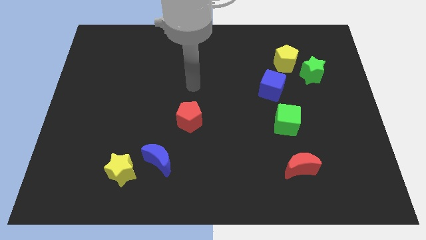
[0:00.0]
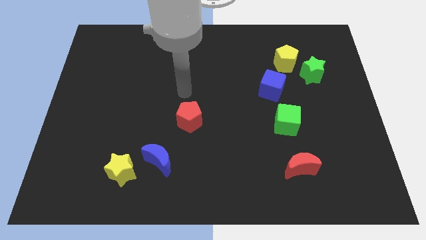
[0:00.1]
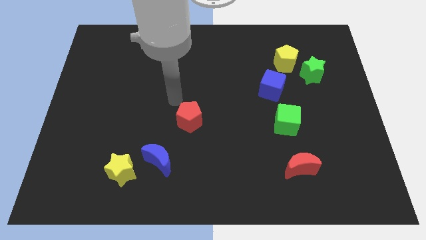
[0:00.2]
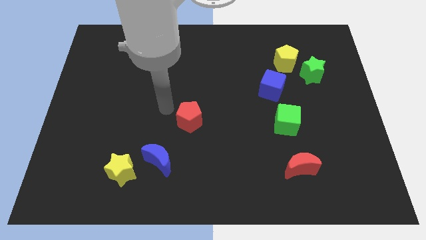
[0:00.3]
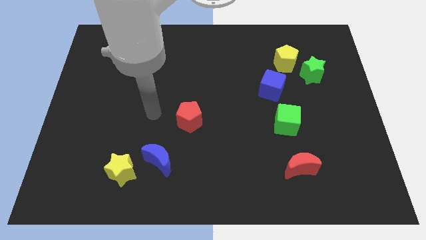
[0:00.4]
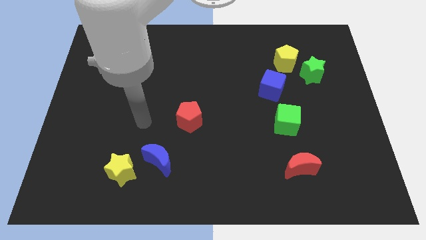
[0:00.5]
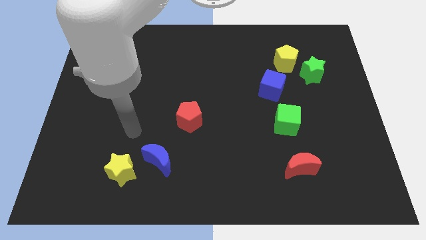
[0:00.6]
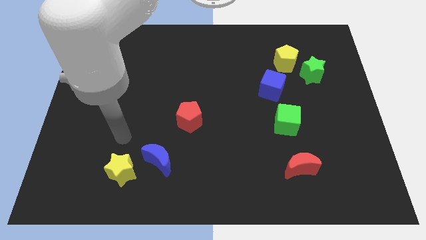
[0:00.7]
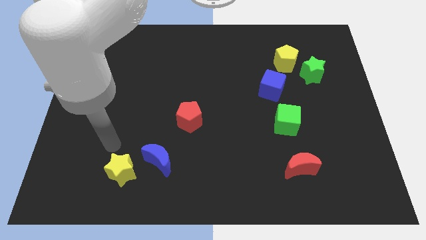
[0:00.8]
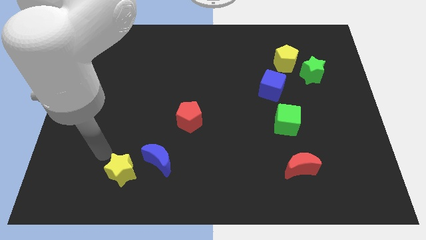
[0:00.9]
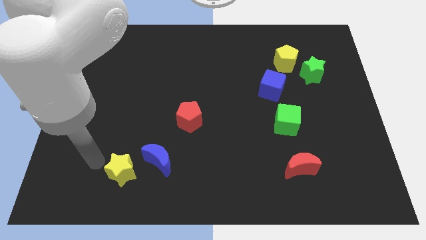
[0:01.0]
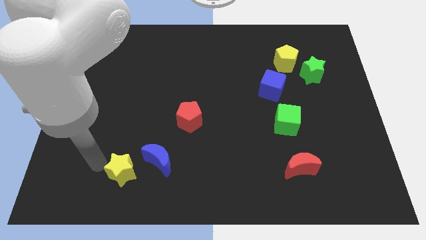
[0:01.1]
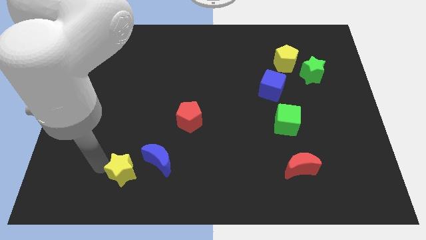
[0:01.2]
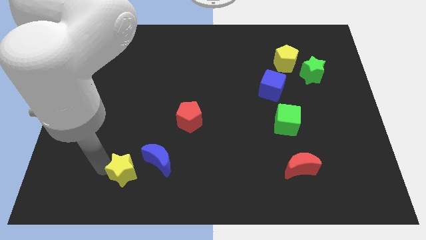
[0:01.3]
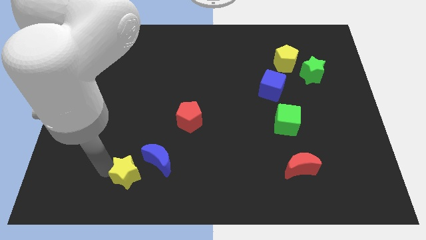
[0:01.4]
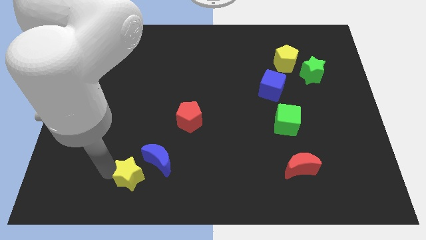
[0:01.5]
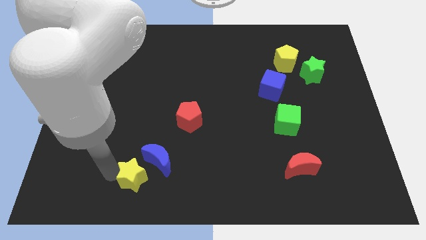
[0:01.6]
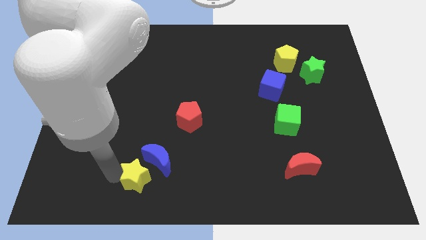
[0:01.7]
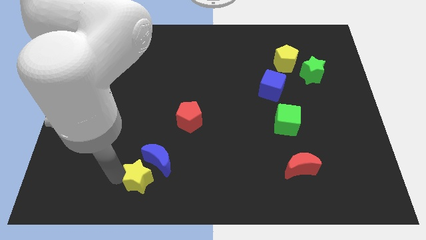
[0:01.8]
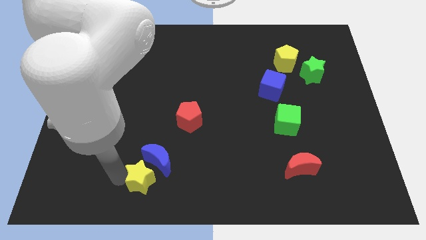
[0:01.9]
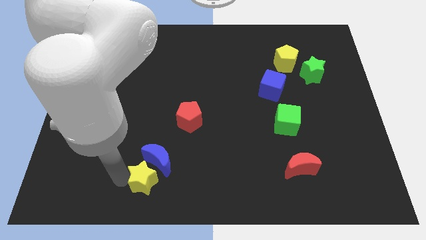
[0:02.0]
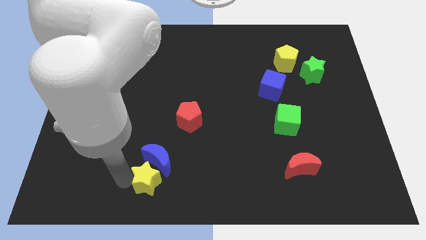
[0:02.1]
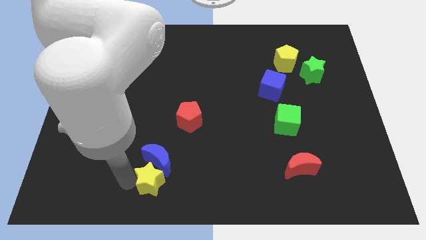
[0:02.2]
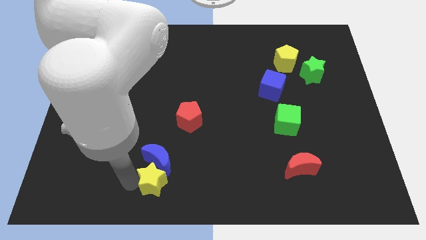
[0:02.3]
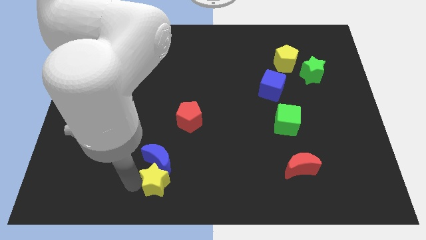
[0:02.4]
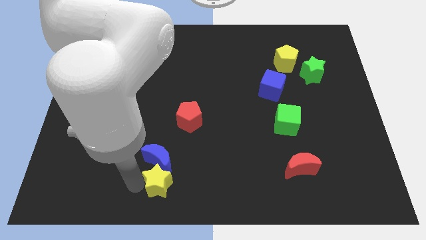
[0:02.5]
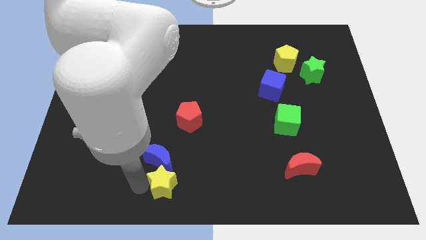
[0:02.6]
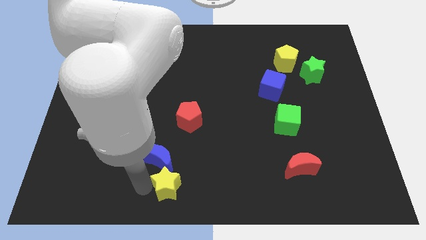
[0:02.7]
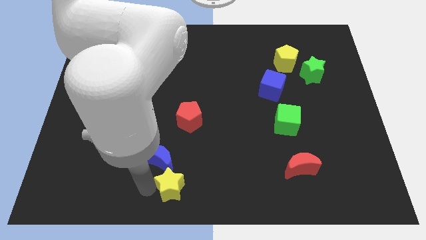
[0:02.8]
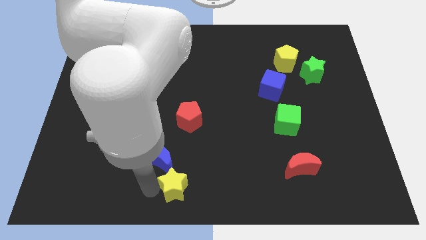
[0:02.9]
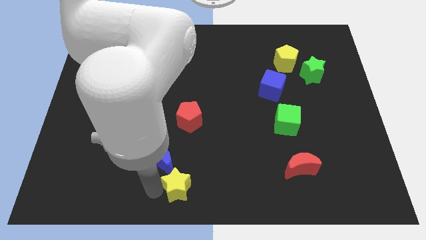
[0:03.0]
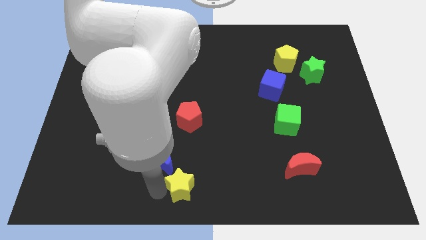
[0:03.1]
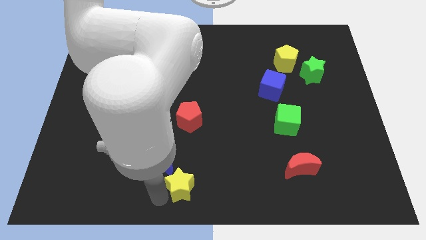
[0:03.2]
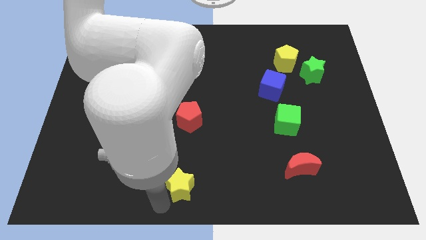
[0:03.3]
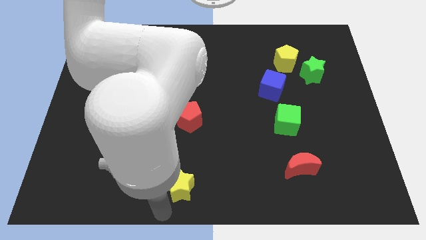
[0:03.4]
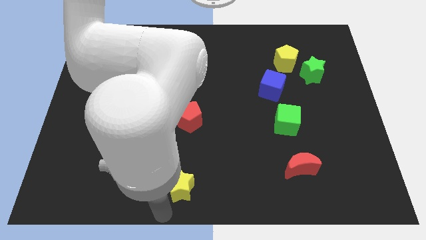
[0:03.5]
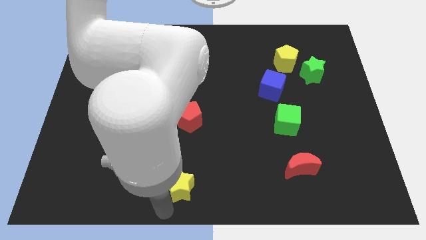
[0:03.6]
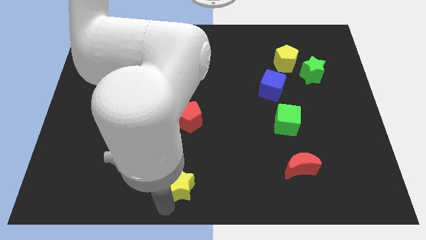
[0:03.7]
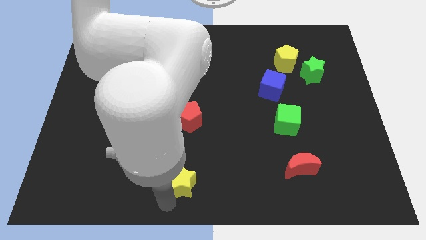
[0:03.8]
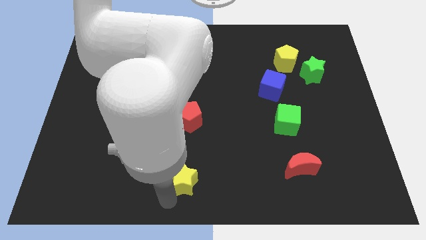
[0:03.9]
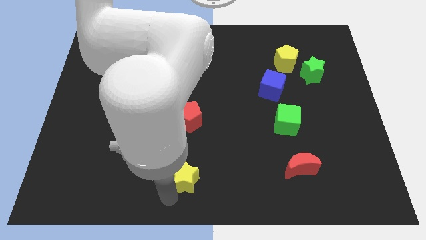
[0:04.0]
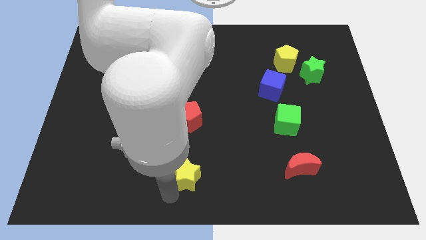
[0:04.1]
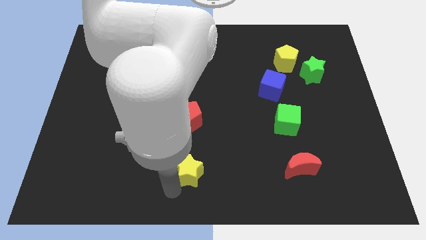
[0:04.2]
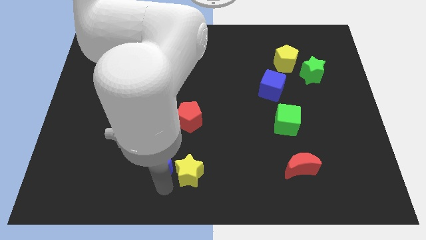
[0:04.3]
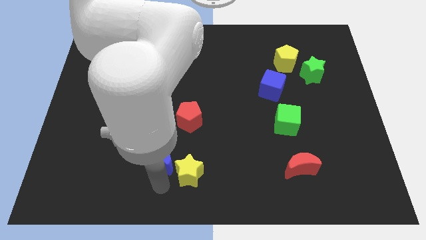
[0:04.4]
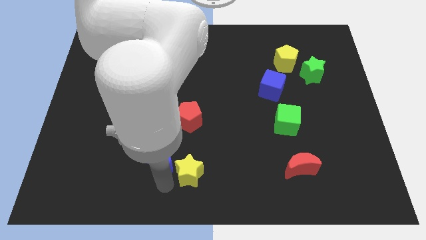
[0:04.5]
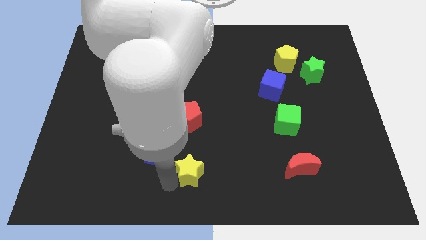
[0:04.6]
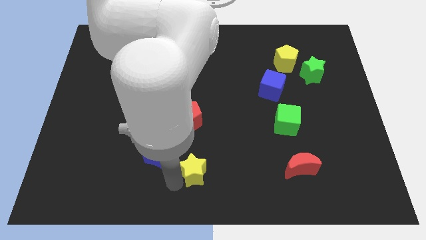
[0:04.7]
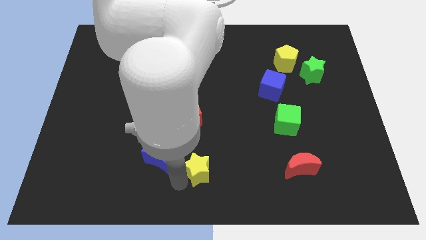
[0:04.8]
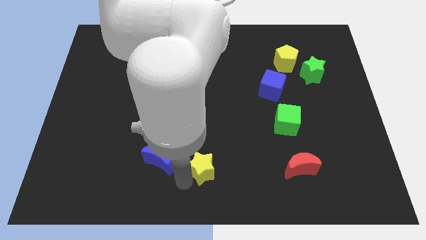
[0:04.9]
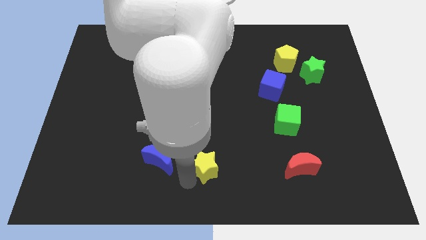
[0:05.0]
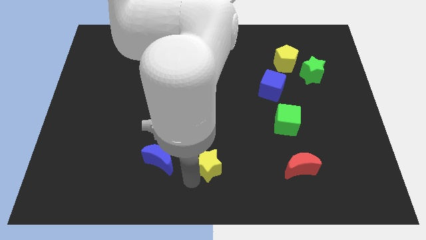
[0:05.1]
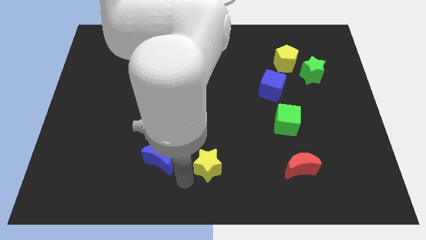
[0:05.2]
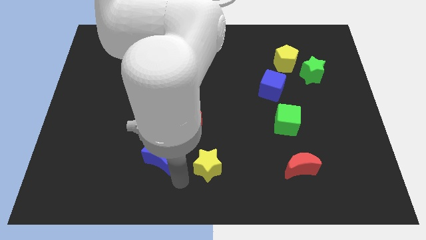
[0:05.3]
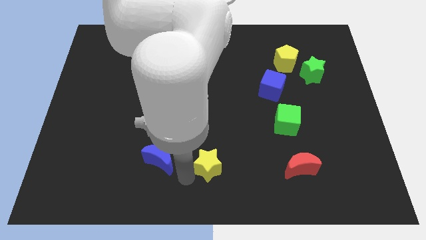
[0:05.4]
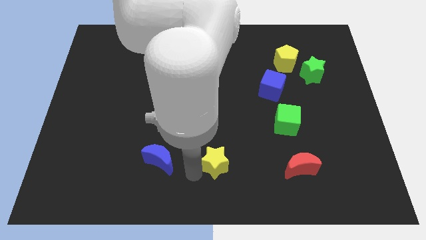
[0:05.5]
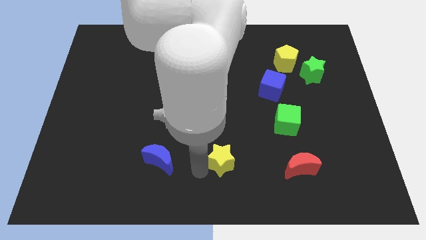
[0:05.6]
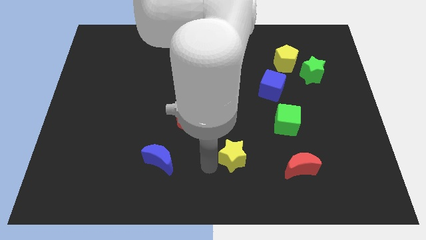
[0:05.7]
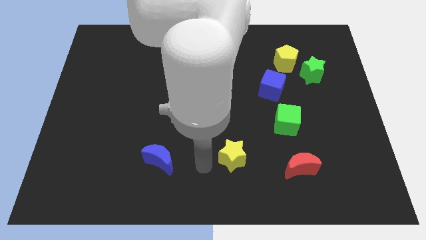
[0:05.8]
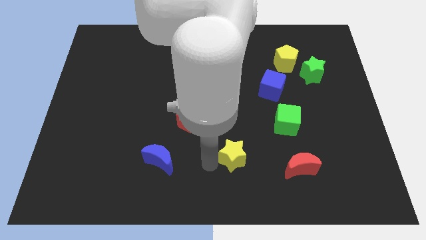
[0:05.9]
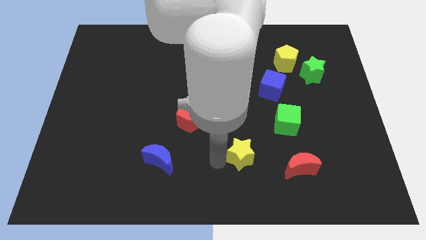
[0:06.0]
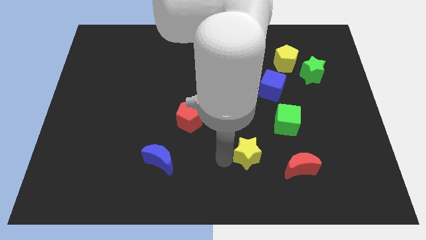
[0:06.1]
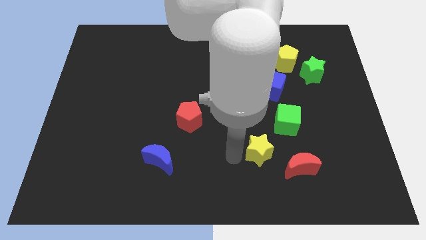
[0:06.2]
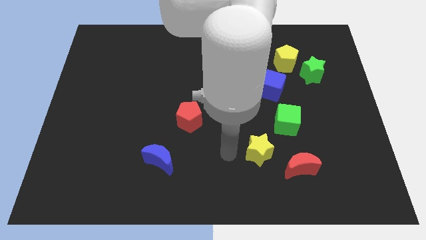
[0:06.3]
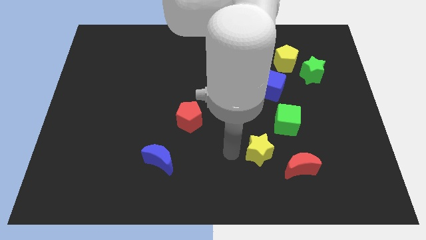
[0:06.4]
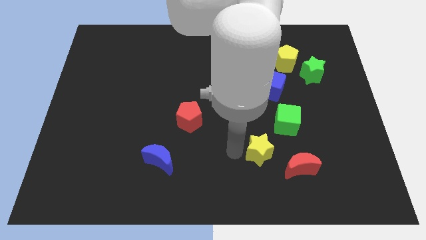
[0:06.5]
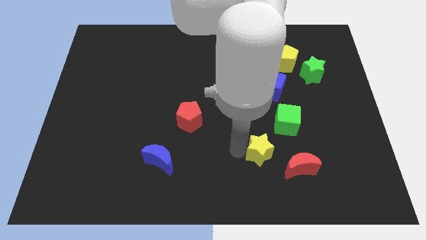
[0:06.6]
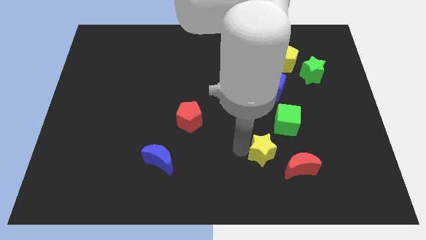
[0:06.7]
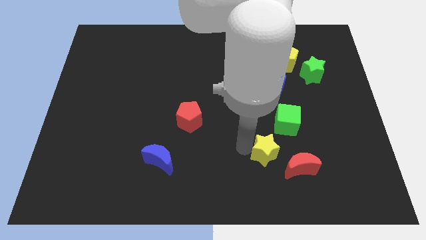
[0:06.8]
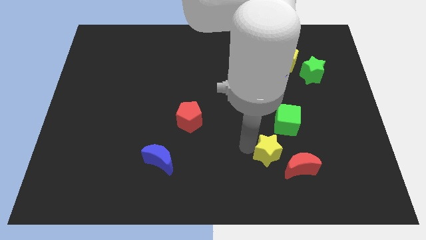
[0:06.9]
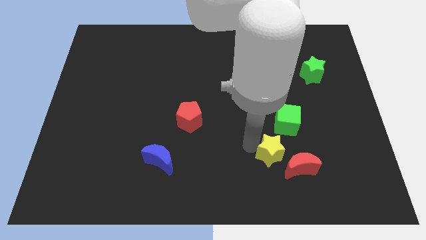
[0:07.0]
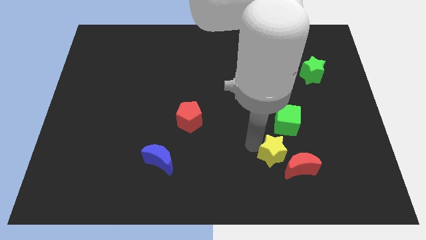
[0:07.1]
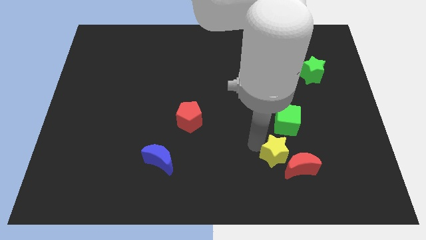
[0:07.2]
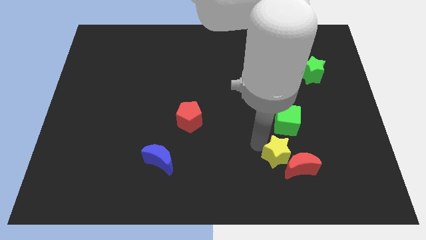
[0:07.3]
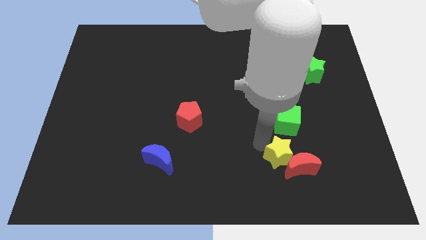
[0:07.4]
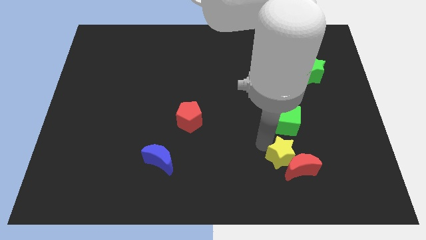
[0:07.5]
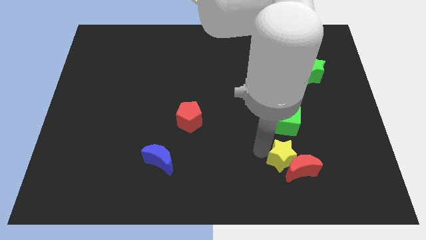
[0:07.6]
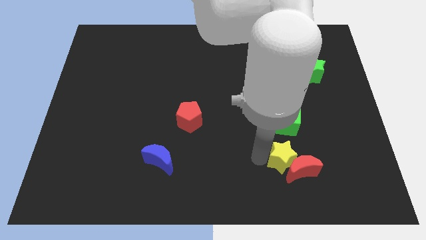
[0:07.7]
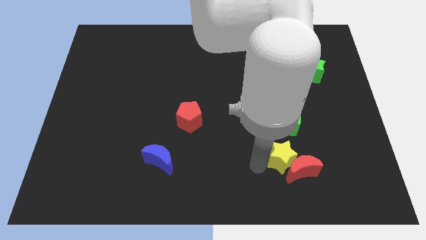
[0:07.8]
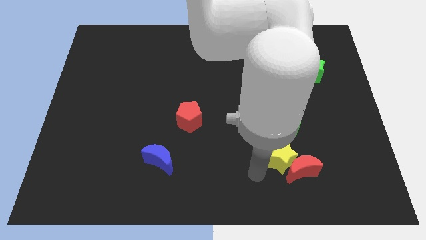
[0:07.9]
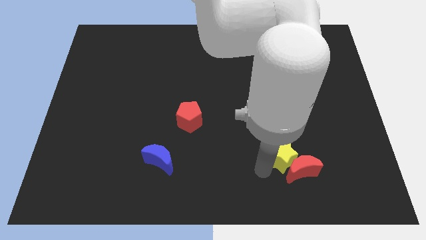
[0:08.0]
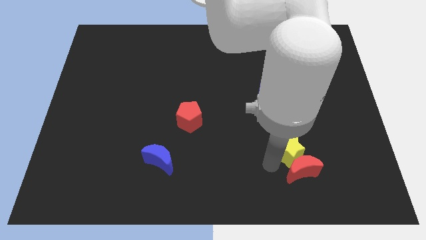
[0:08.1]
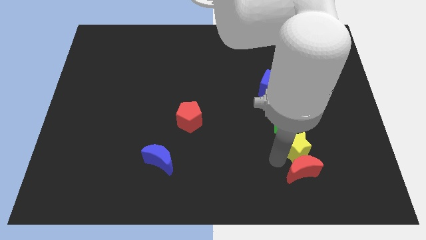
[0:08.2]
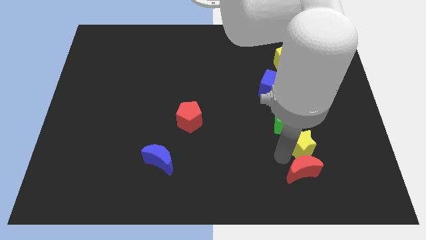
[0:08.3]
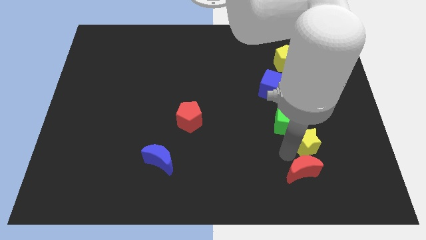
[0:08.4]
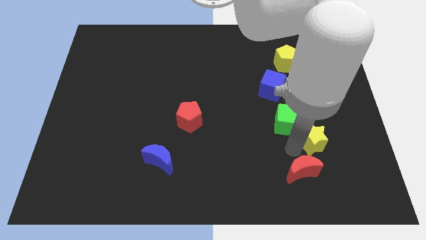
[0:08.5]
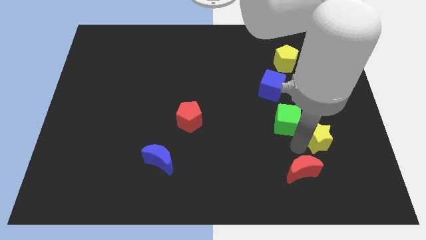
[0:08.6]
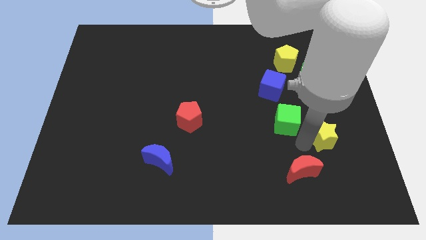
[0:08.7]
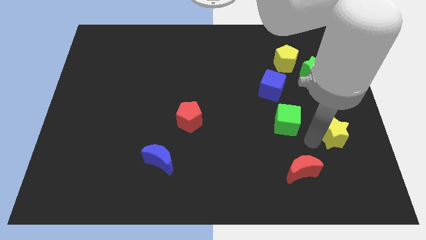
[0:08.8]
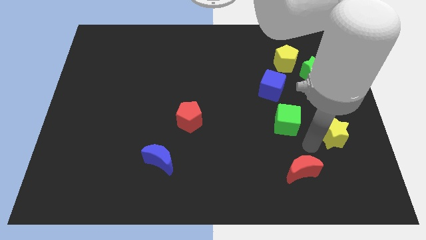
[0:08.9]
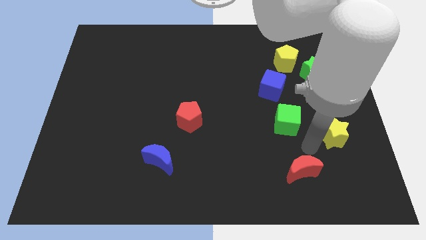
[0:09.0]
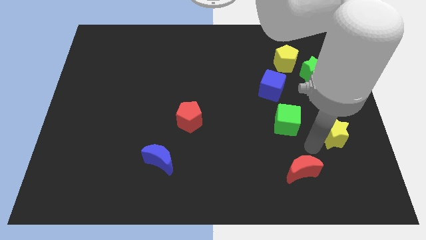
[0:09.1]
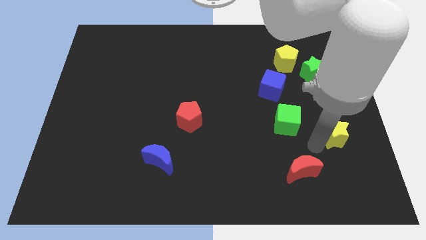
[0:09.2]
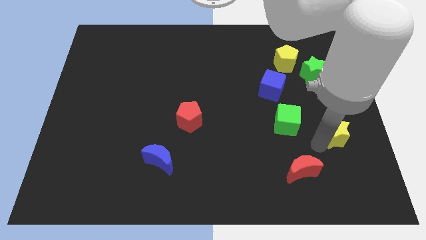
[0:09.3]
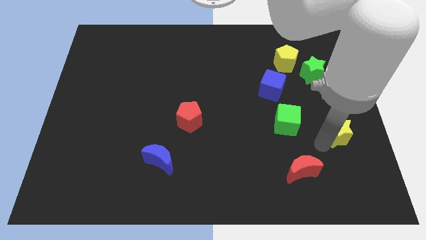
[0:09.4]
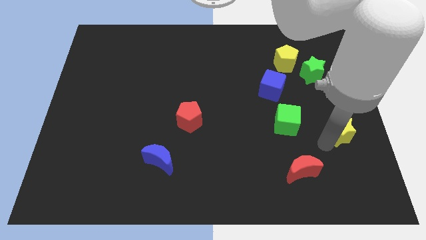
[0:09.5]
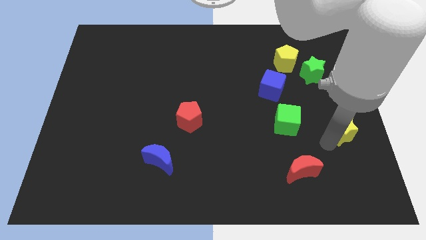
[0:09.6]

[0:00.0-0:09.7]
move the yellow star to the right side
